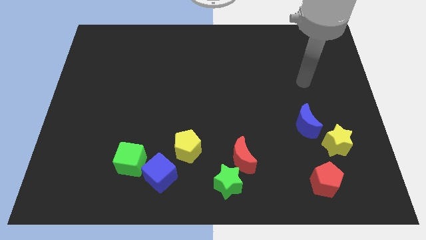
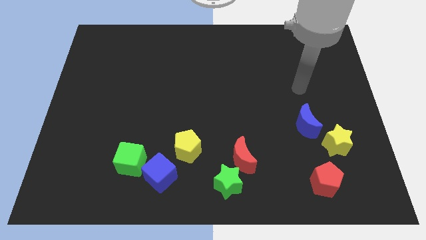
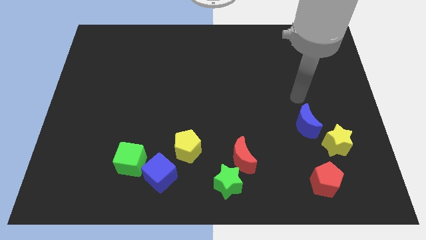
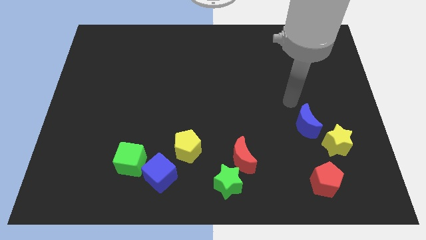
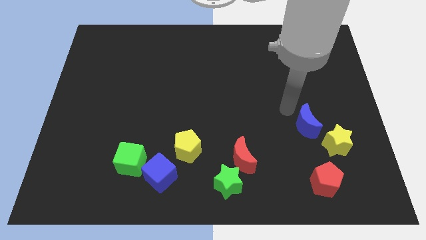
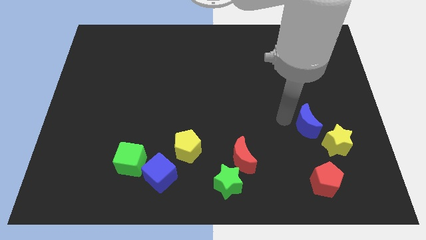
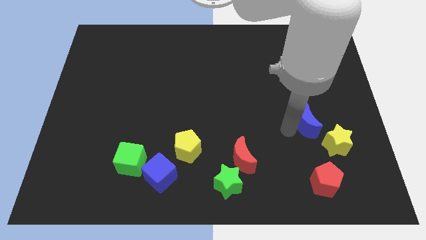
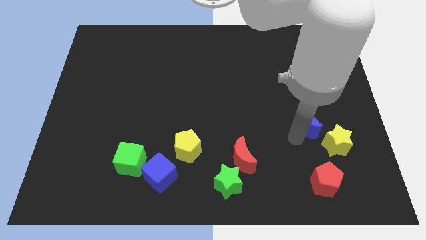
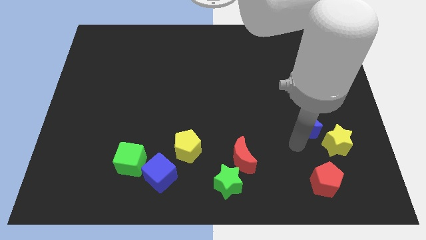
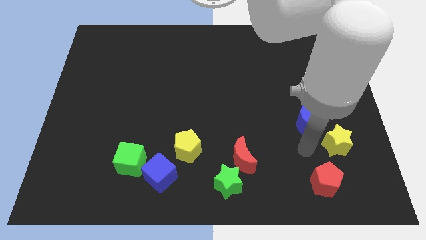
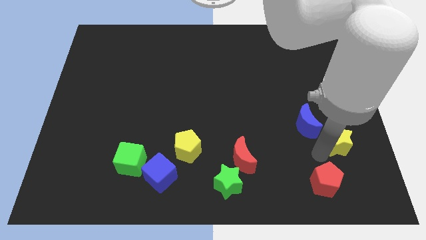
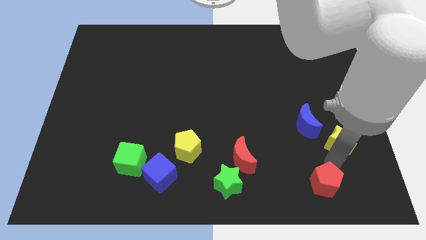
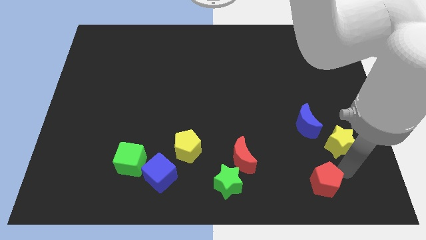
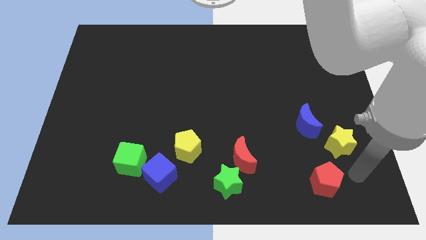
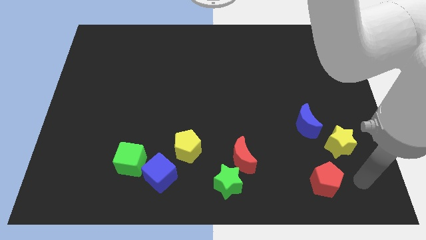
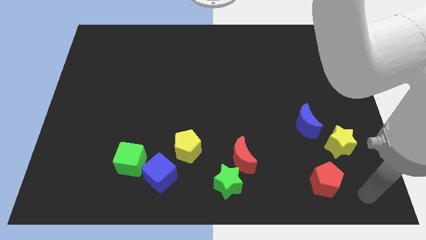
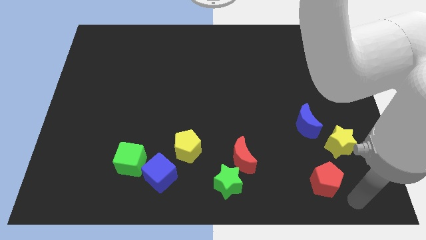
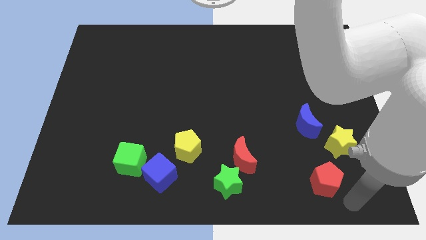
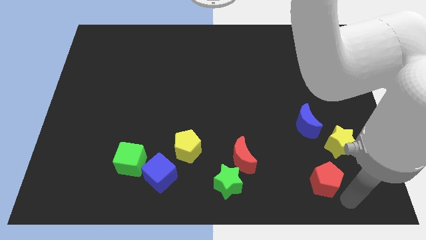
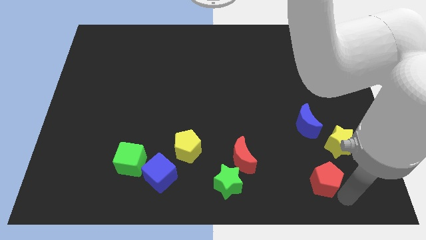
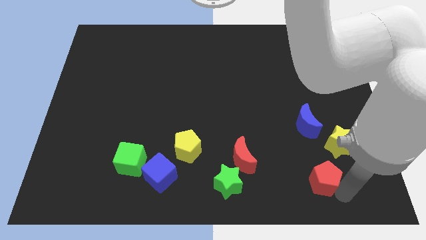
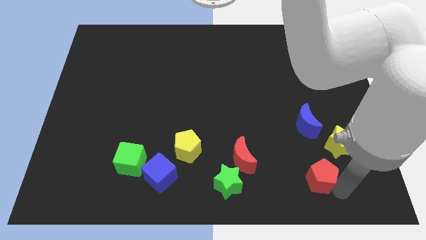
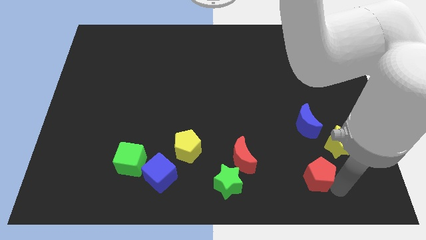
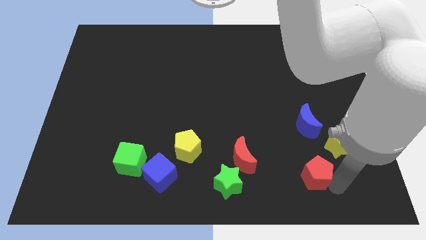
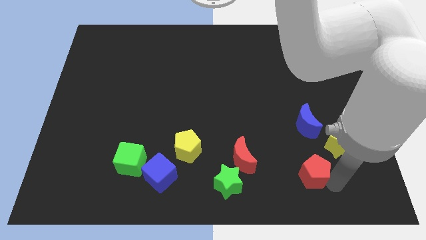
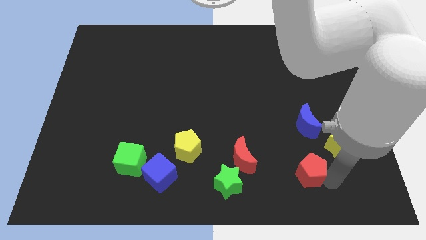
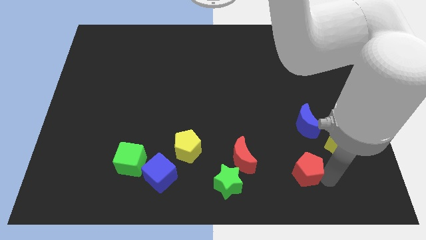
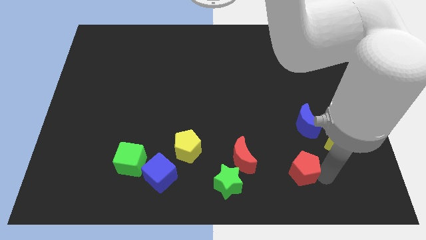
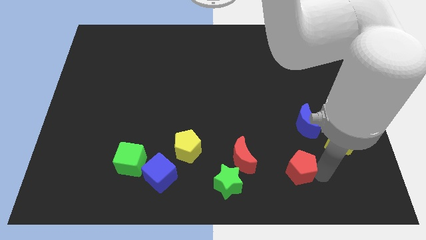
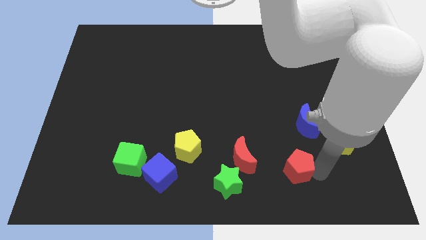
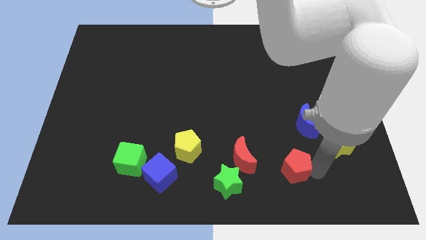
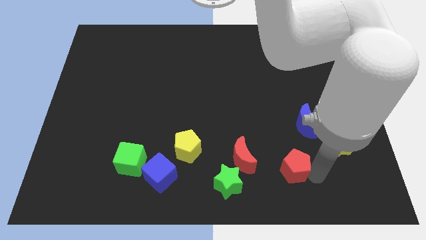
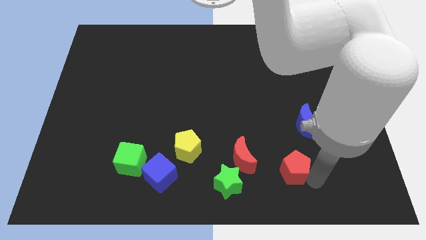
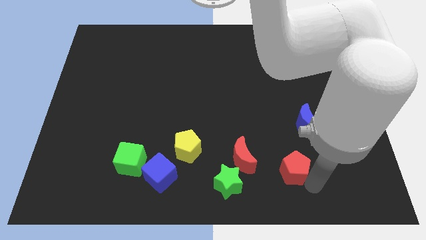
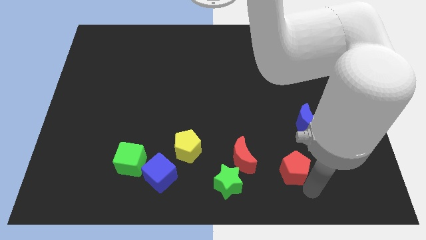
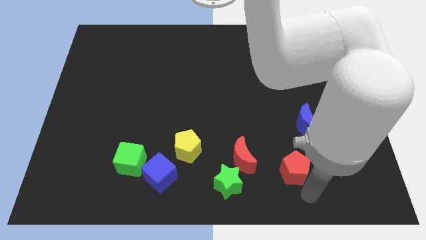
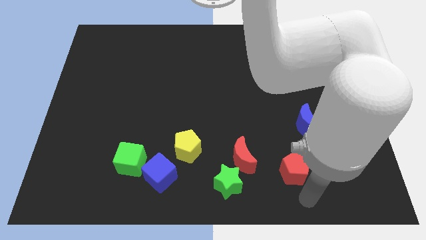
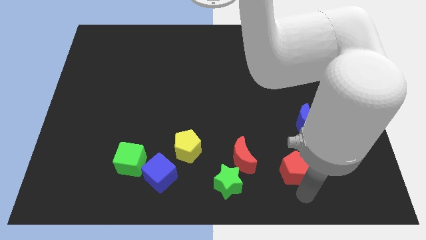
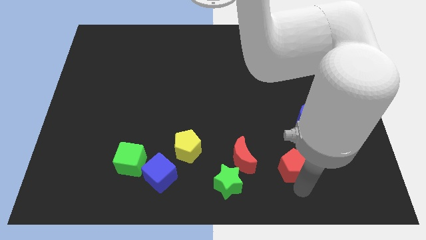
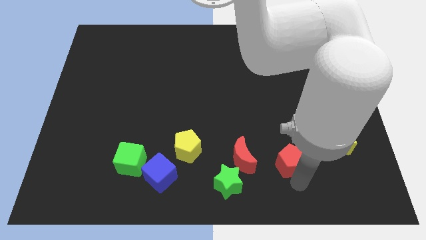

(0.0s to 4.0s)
slide the red pentagon somewhat up and to the left

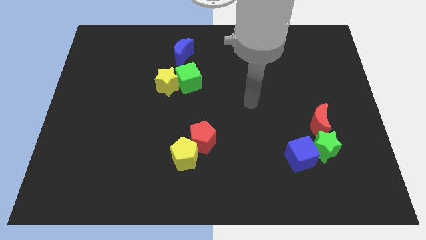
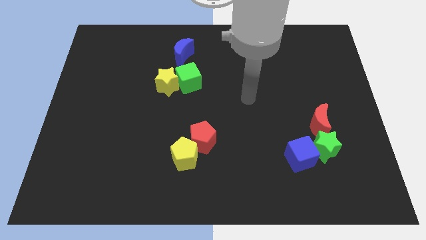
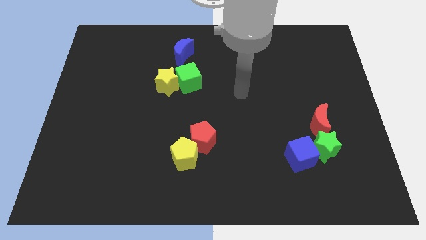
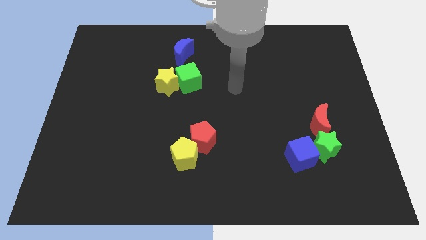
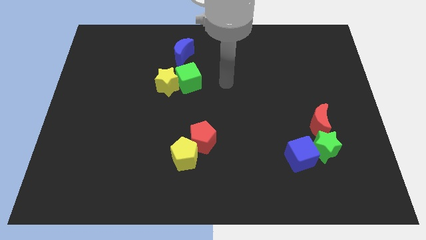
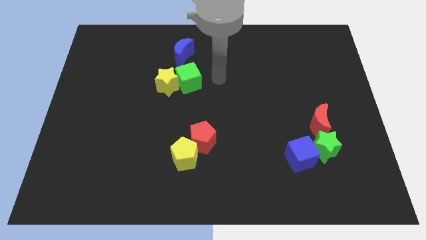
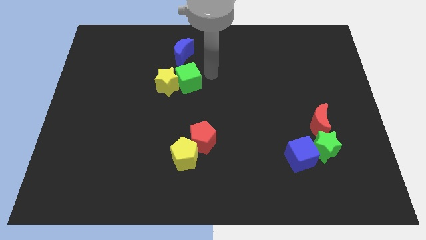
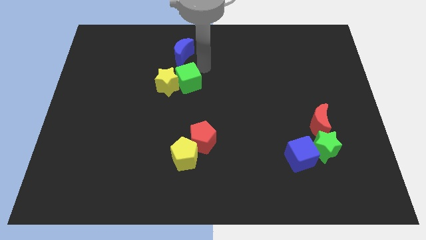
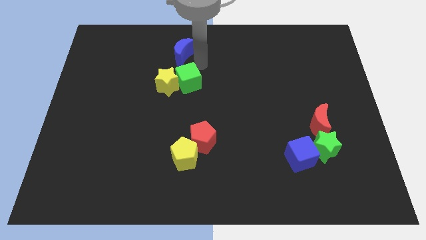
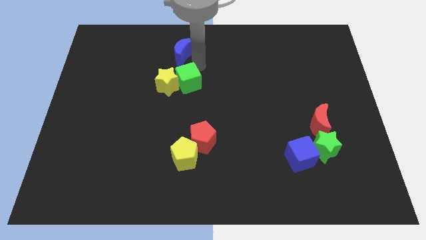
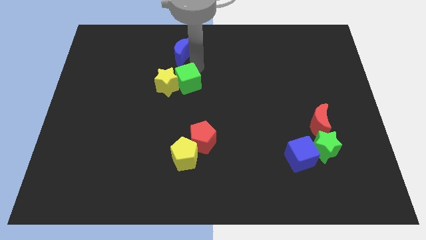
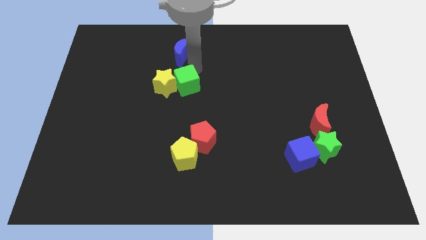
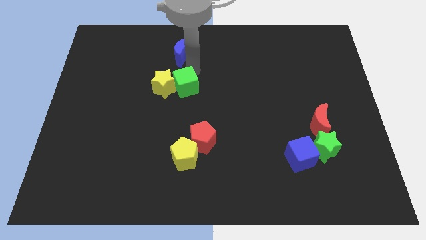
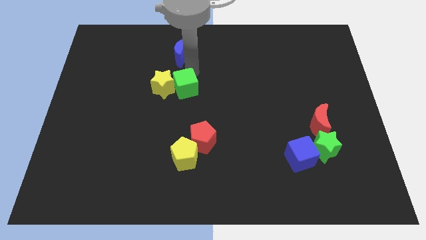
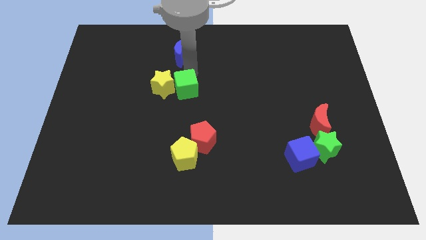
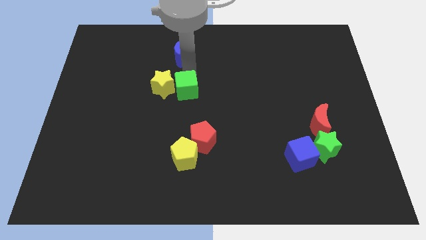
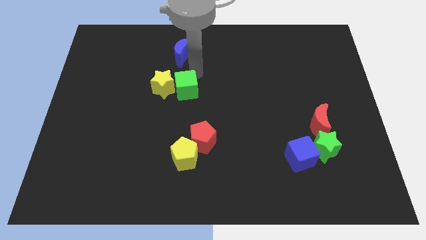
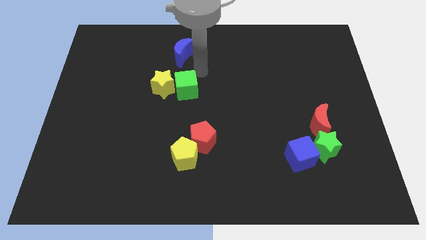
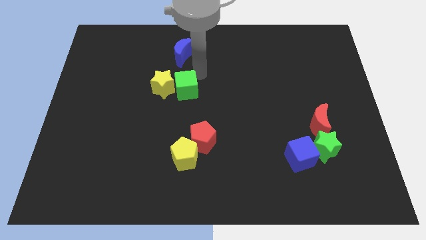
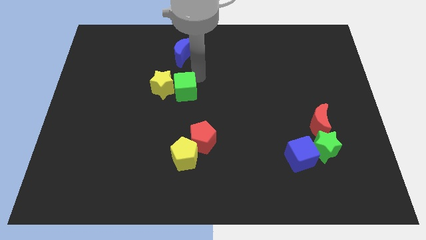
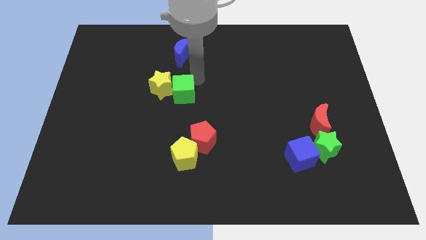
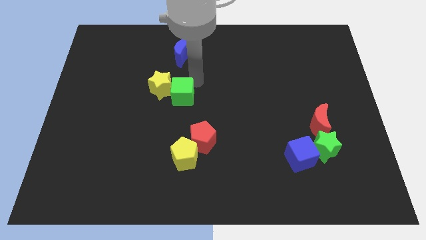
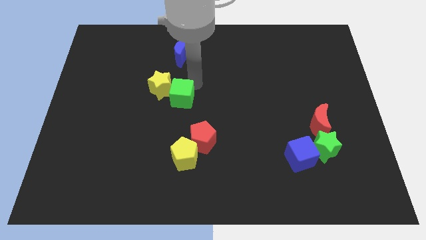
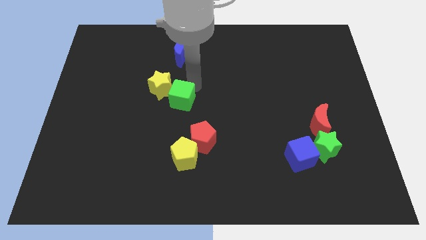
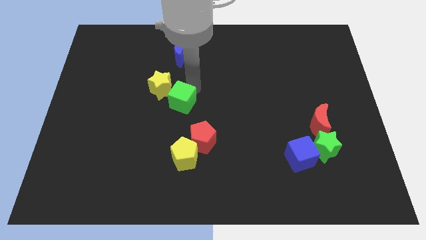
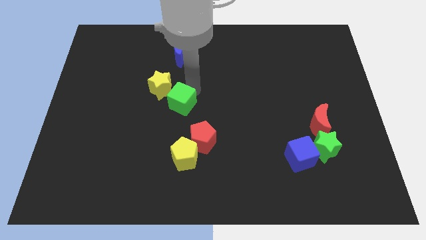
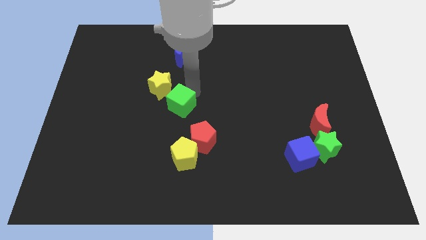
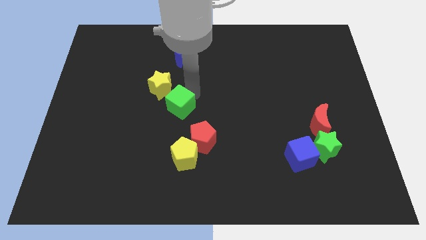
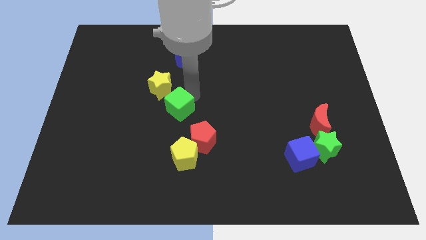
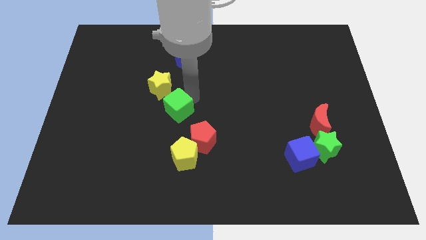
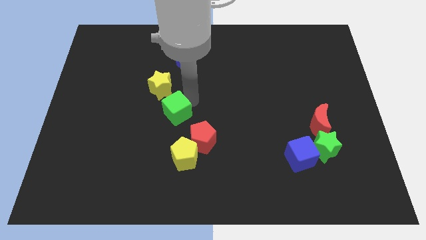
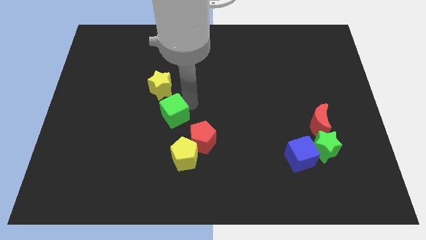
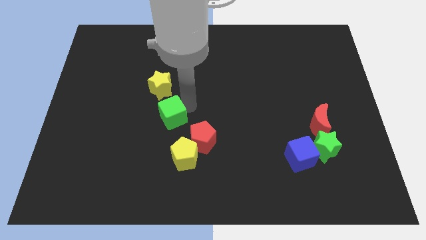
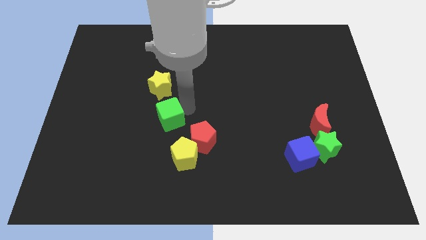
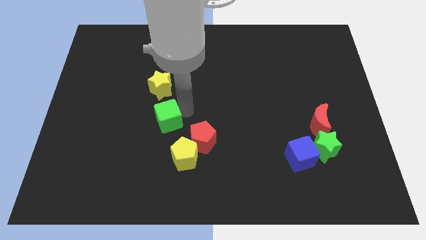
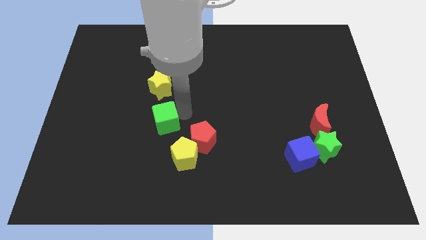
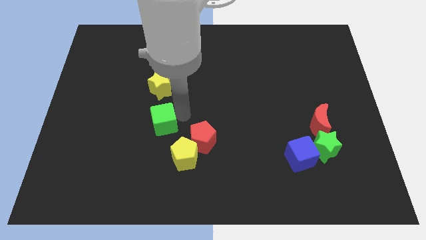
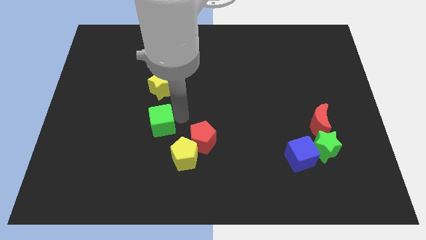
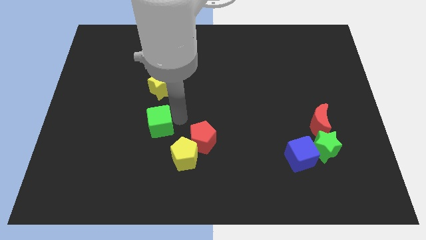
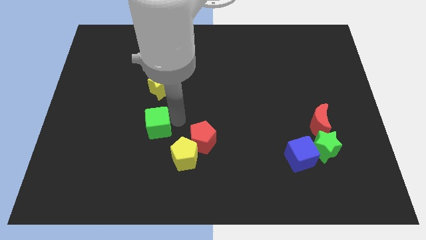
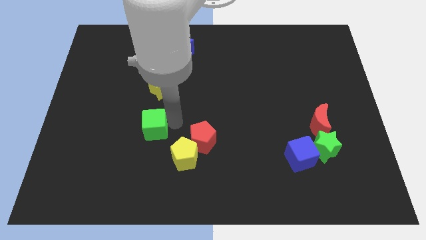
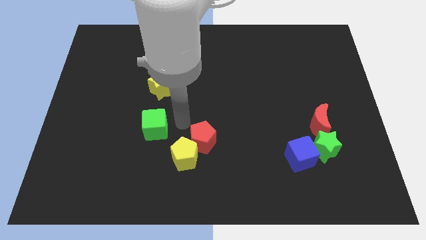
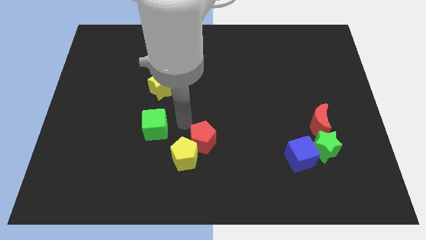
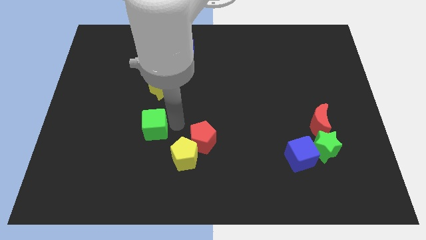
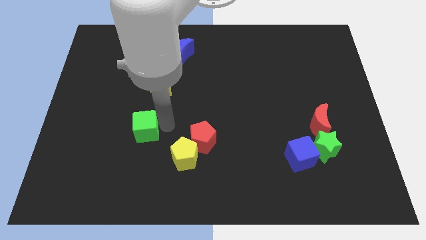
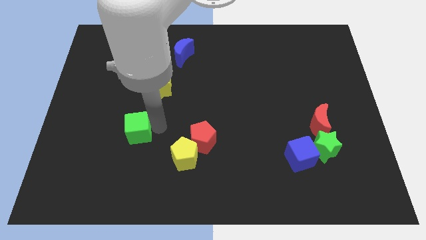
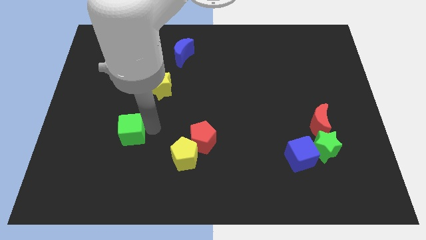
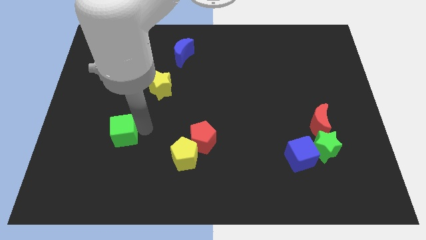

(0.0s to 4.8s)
push the green cube diagonally downwards and left
